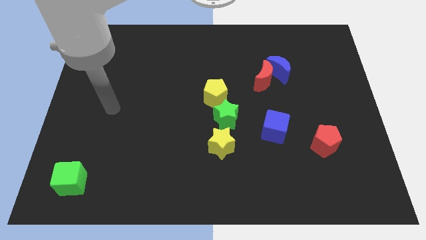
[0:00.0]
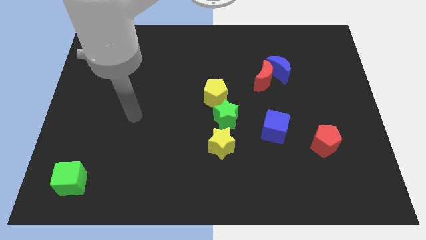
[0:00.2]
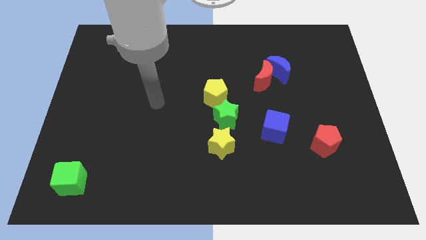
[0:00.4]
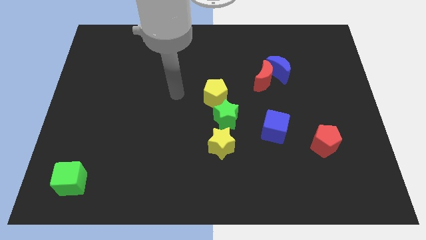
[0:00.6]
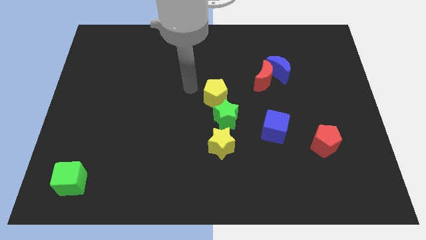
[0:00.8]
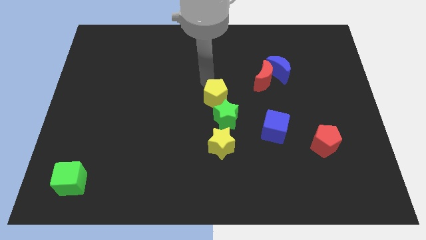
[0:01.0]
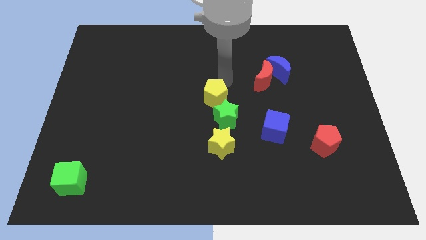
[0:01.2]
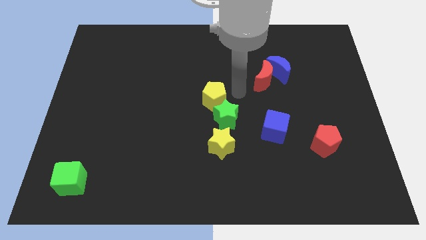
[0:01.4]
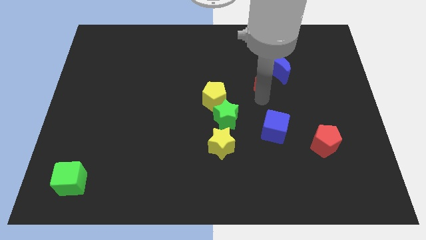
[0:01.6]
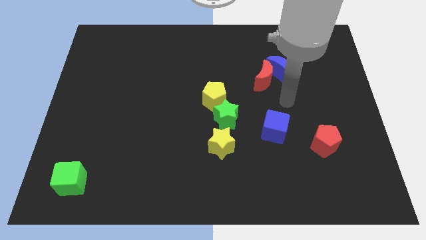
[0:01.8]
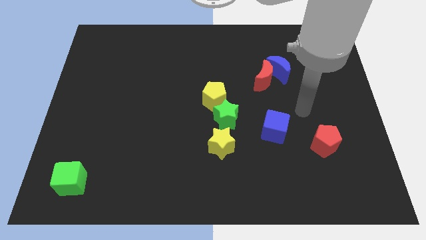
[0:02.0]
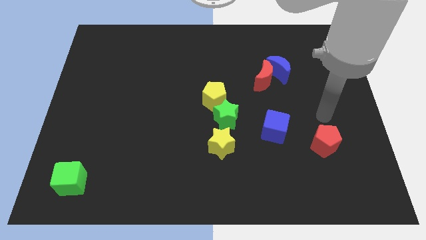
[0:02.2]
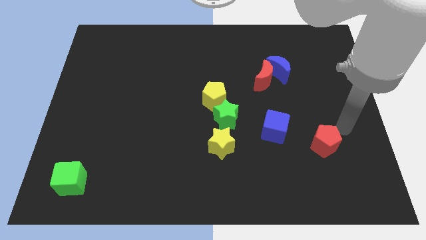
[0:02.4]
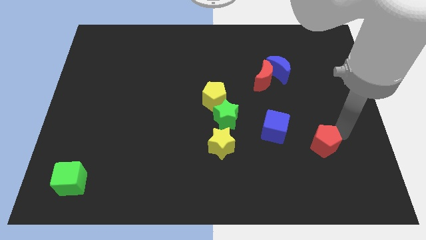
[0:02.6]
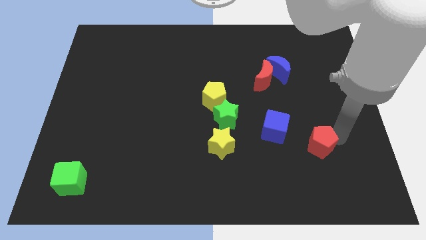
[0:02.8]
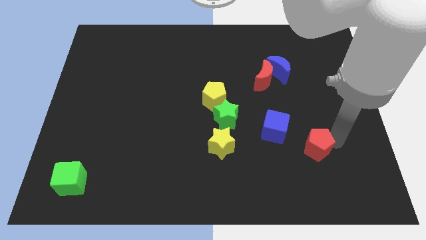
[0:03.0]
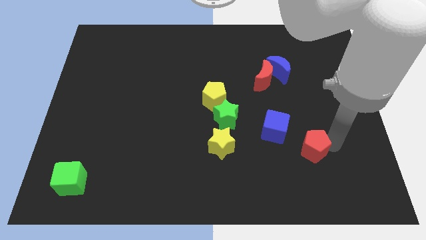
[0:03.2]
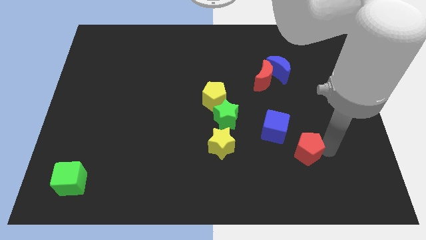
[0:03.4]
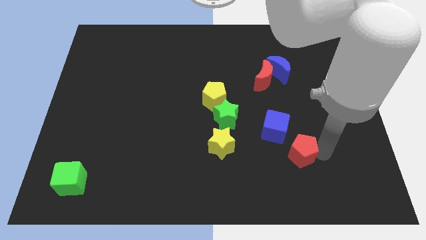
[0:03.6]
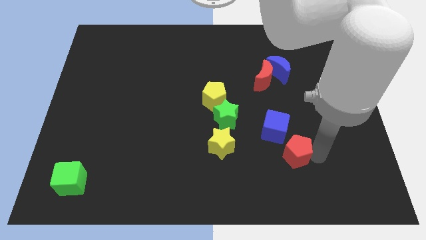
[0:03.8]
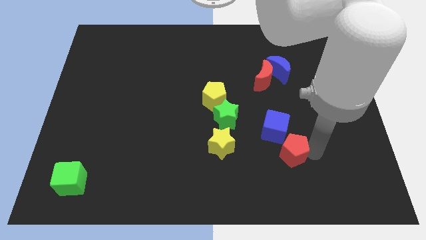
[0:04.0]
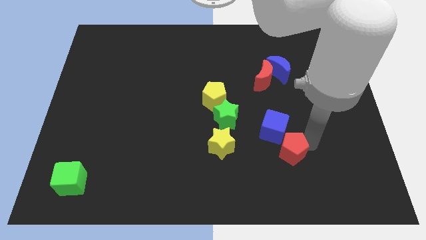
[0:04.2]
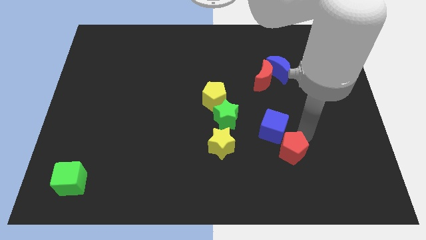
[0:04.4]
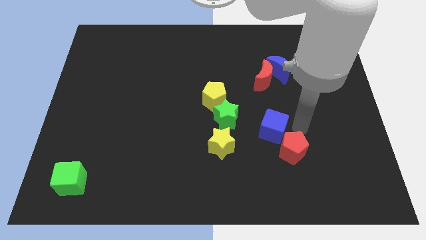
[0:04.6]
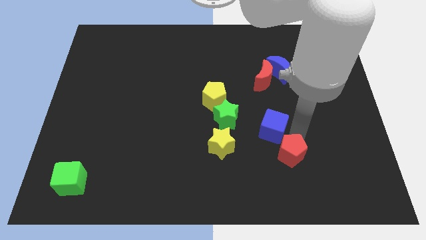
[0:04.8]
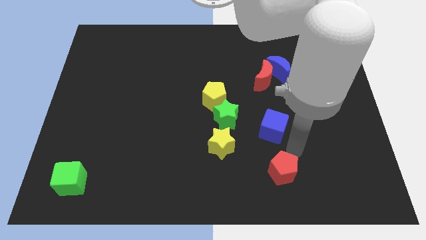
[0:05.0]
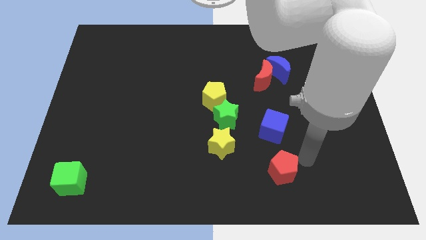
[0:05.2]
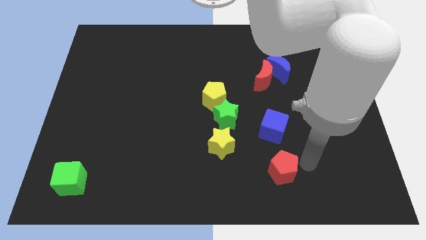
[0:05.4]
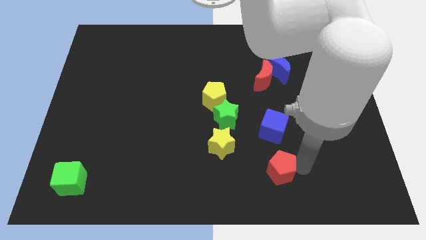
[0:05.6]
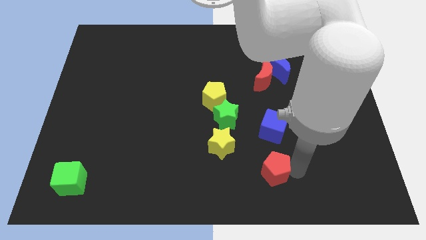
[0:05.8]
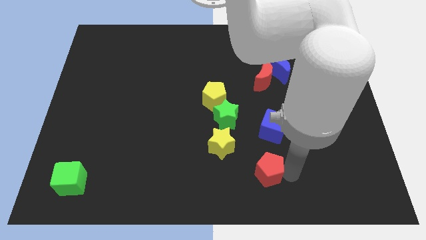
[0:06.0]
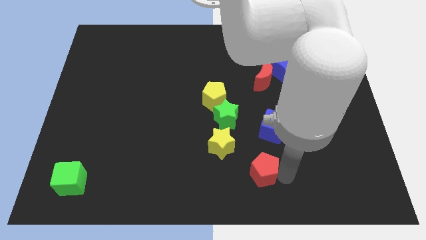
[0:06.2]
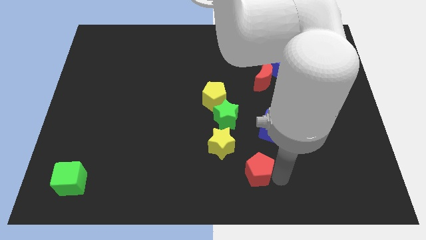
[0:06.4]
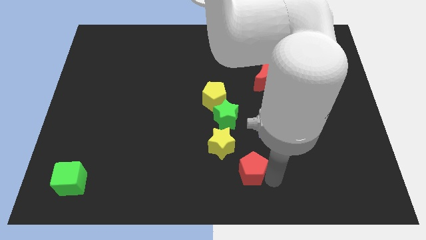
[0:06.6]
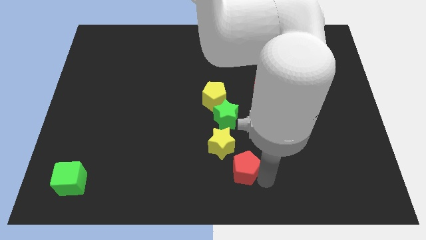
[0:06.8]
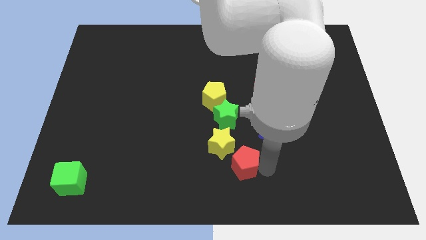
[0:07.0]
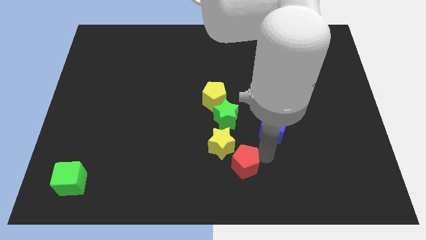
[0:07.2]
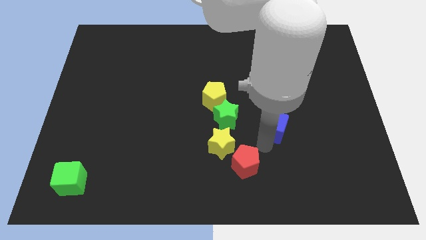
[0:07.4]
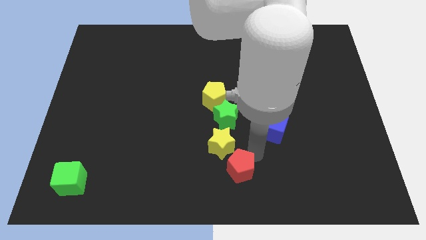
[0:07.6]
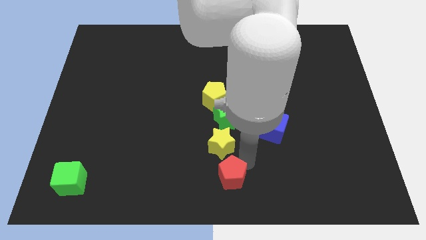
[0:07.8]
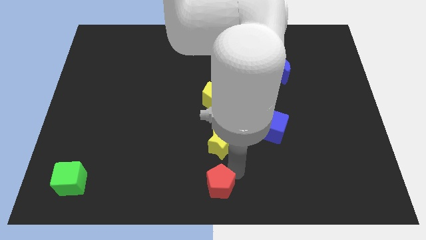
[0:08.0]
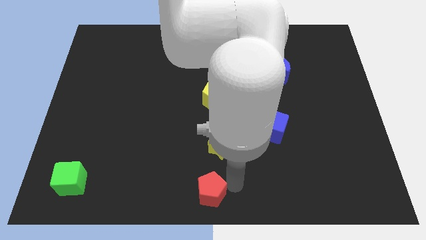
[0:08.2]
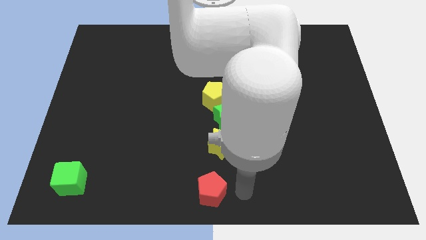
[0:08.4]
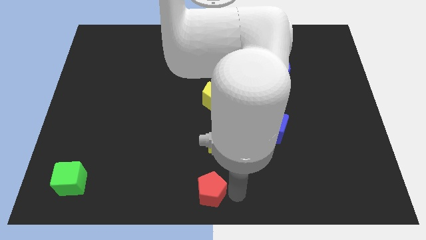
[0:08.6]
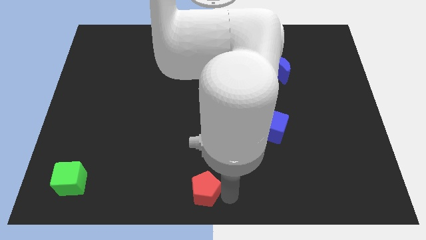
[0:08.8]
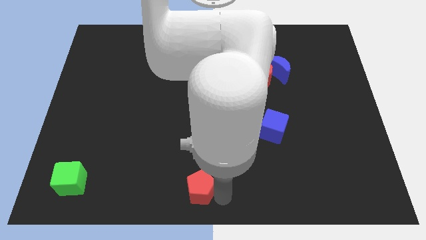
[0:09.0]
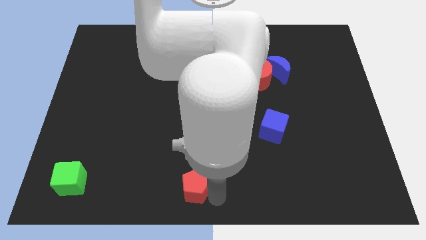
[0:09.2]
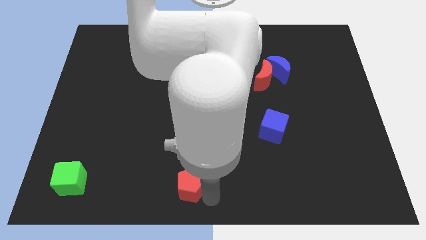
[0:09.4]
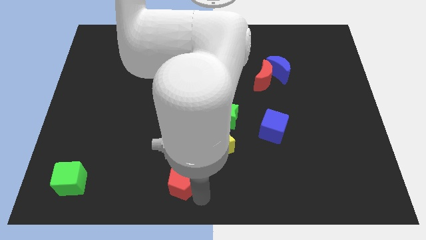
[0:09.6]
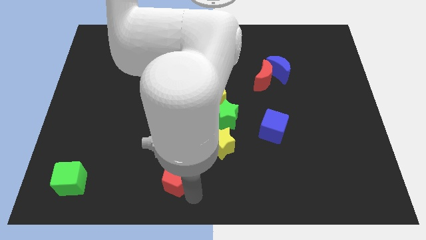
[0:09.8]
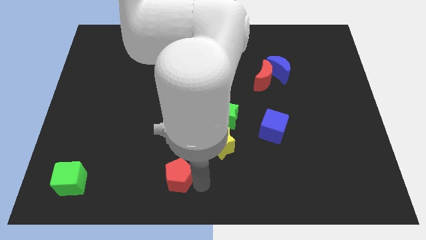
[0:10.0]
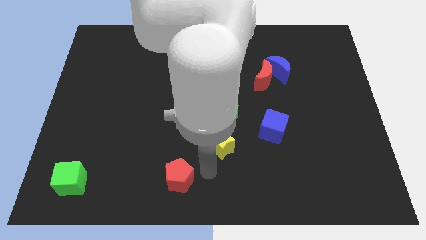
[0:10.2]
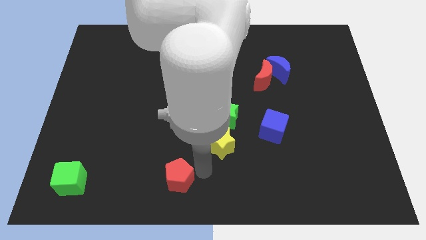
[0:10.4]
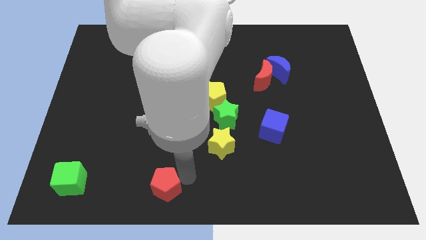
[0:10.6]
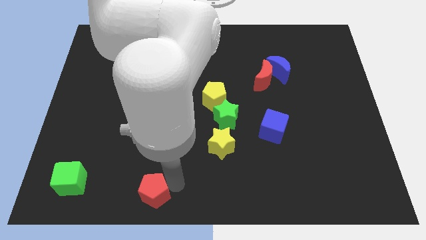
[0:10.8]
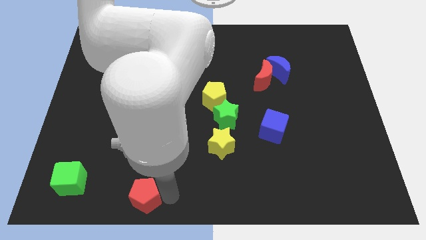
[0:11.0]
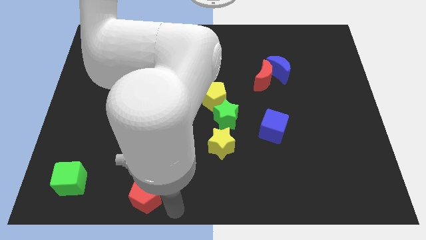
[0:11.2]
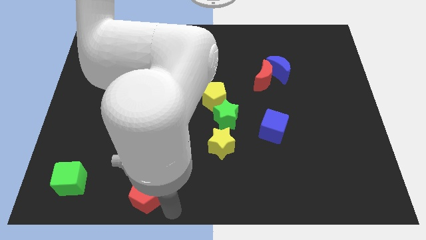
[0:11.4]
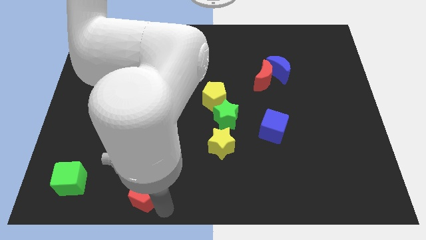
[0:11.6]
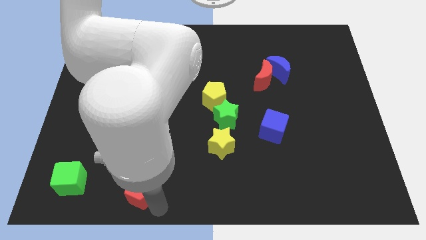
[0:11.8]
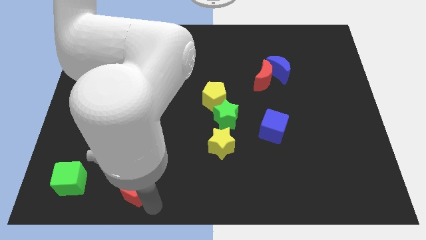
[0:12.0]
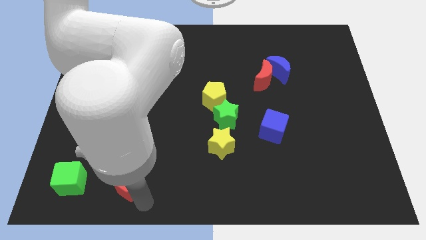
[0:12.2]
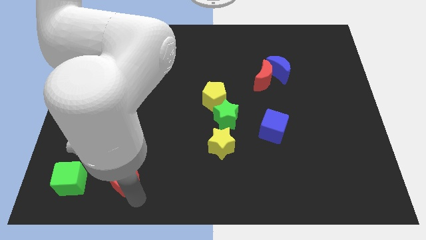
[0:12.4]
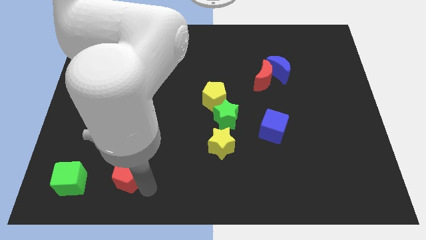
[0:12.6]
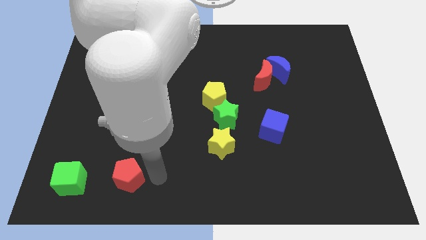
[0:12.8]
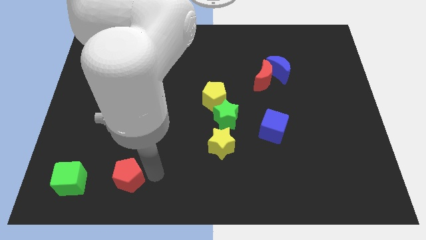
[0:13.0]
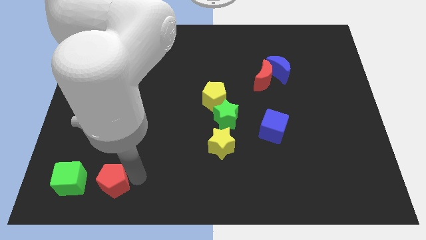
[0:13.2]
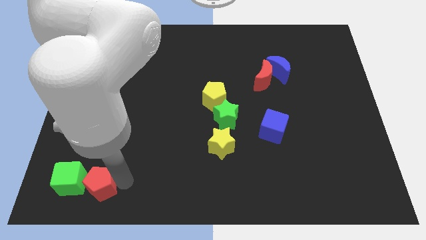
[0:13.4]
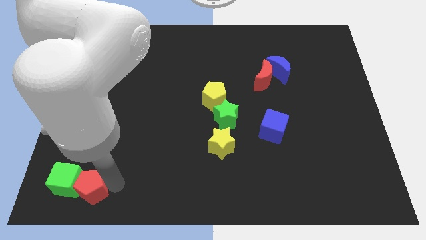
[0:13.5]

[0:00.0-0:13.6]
move the red pentagon next to the green cube

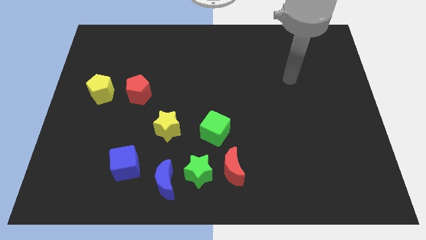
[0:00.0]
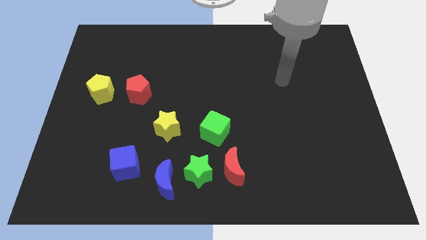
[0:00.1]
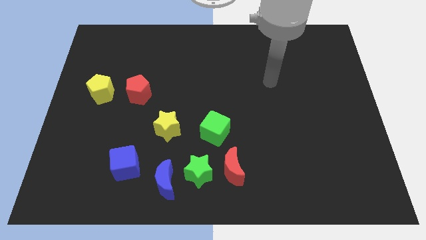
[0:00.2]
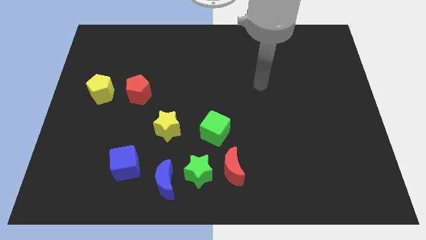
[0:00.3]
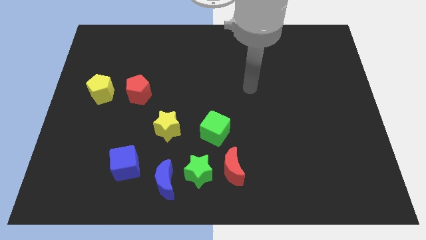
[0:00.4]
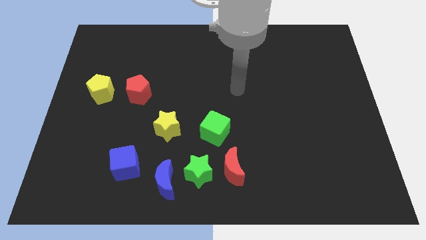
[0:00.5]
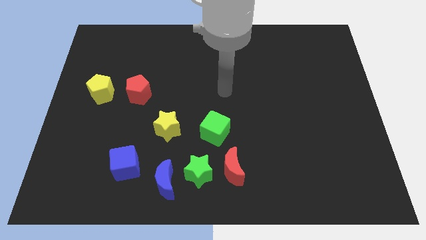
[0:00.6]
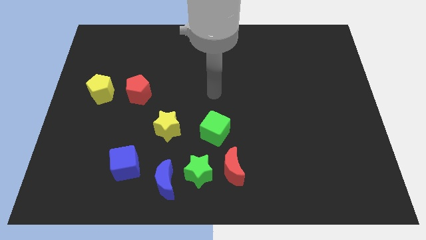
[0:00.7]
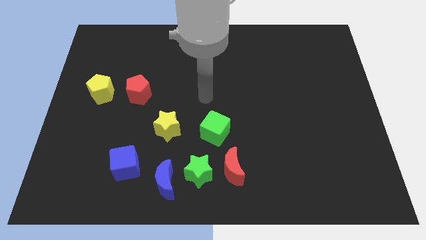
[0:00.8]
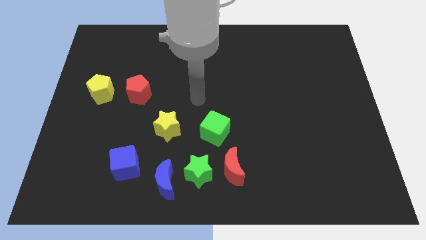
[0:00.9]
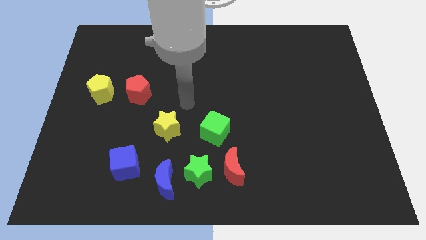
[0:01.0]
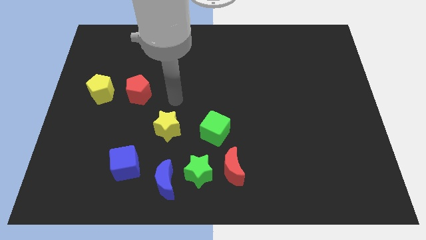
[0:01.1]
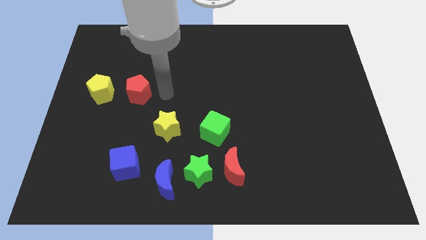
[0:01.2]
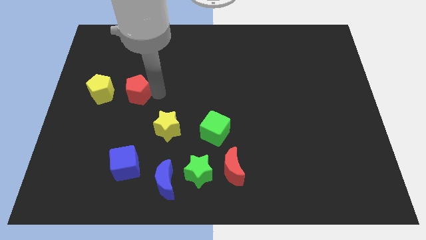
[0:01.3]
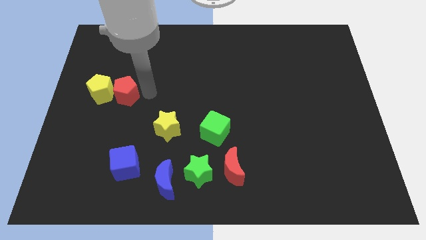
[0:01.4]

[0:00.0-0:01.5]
move the red pentagon close to the yellow pentagon
